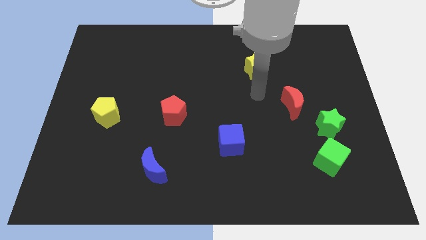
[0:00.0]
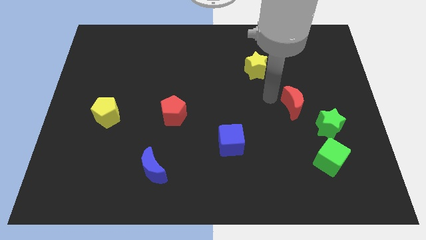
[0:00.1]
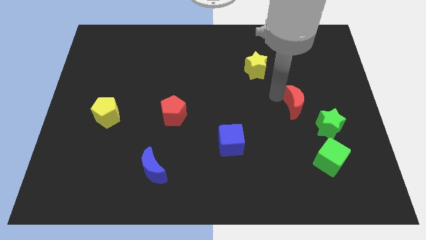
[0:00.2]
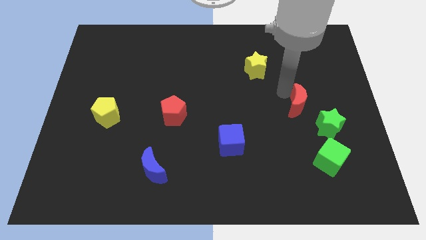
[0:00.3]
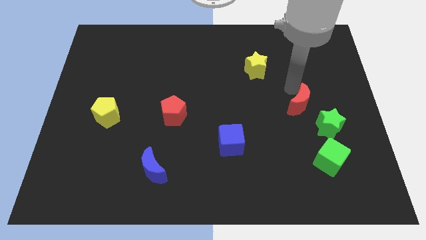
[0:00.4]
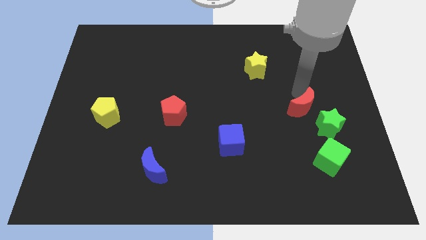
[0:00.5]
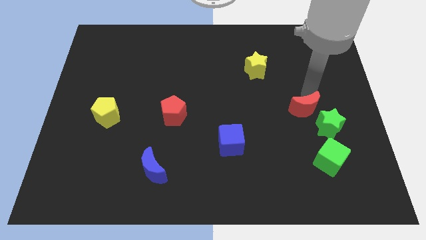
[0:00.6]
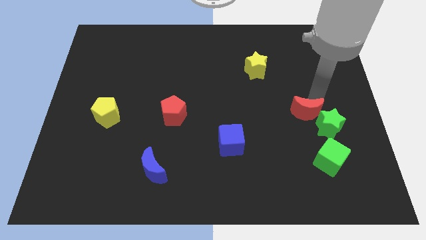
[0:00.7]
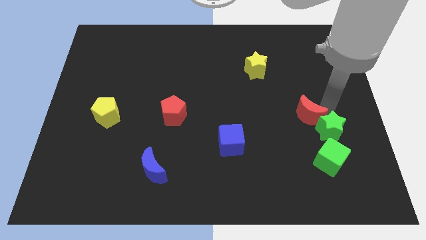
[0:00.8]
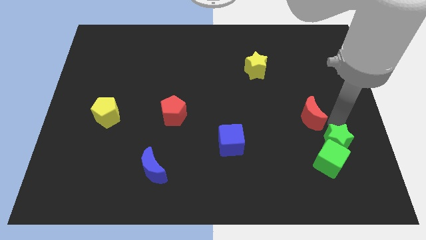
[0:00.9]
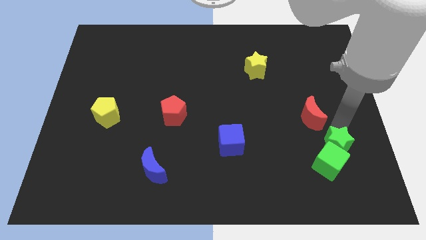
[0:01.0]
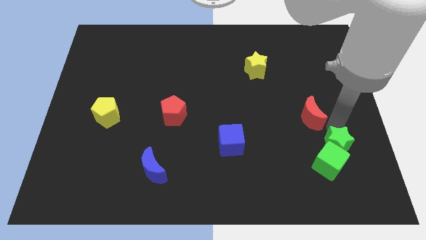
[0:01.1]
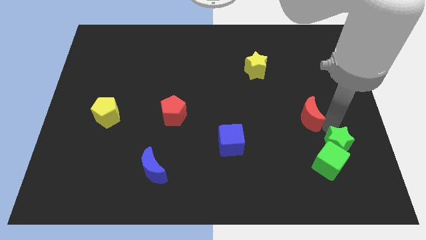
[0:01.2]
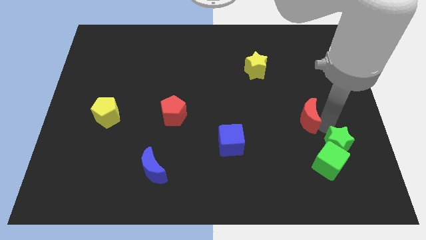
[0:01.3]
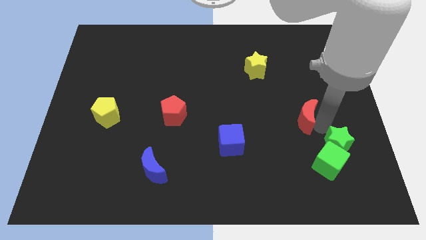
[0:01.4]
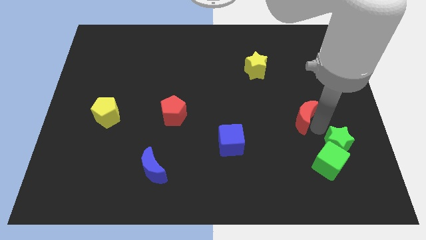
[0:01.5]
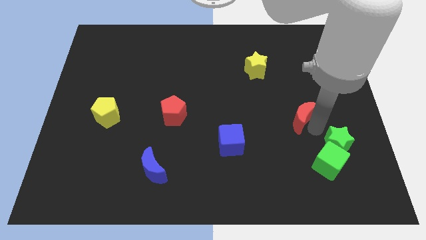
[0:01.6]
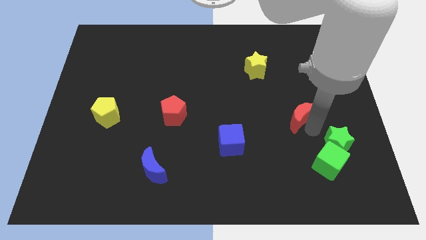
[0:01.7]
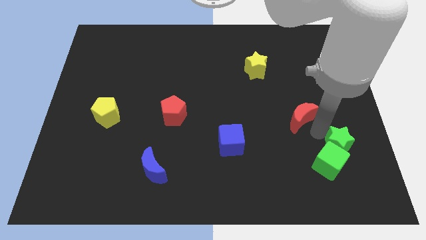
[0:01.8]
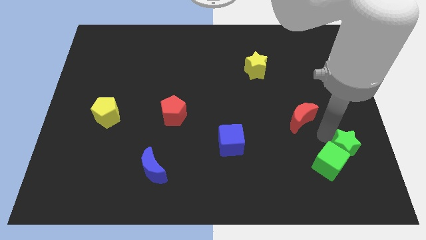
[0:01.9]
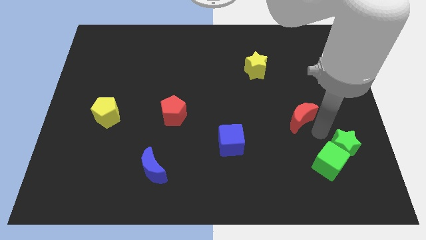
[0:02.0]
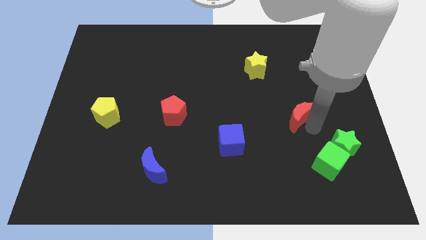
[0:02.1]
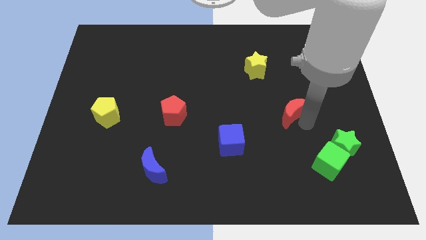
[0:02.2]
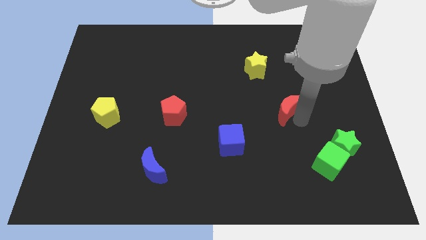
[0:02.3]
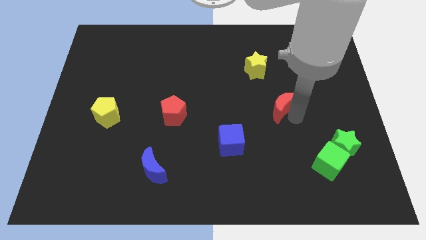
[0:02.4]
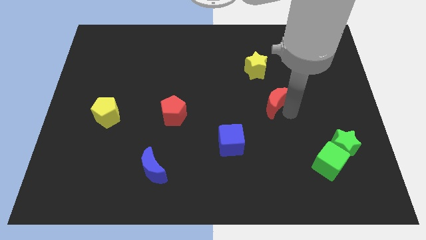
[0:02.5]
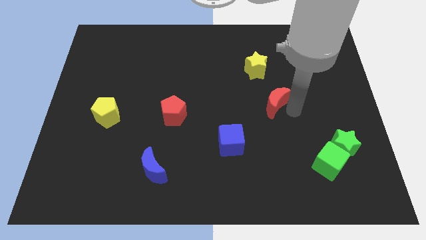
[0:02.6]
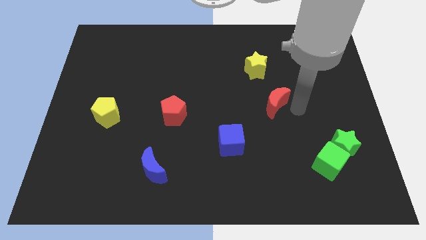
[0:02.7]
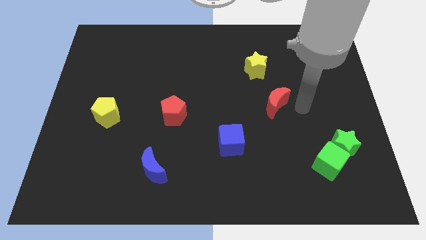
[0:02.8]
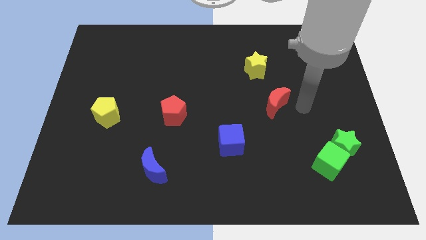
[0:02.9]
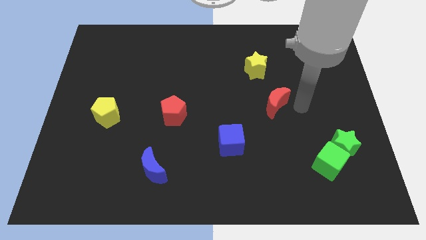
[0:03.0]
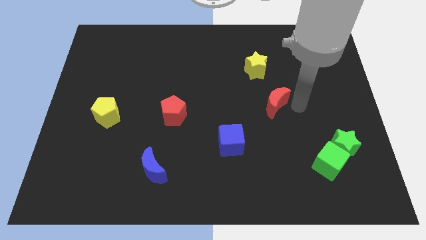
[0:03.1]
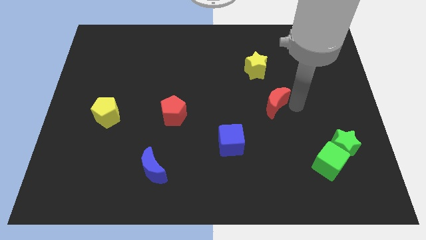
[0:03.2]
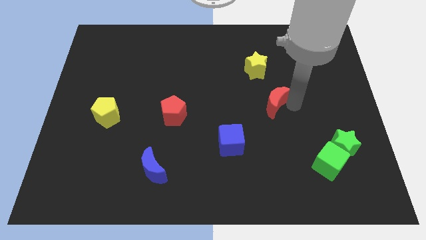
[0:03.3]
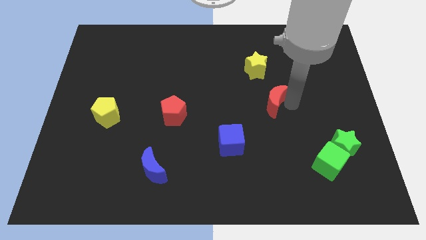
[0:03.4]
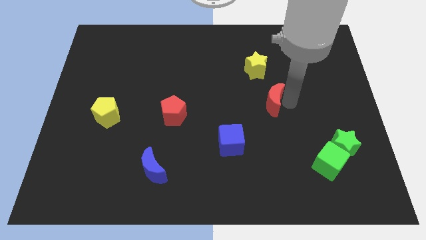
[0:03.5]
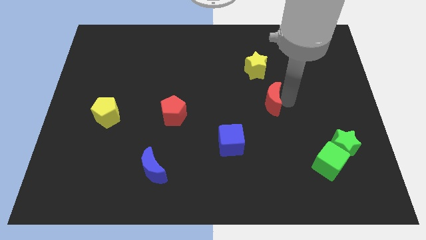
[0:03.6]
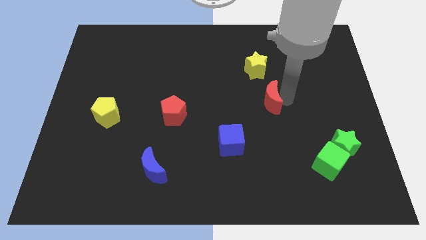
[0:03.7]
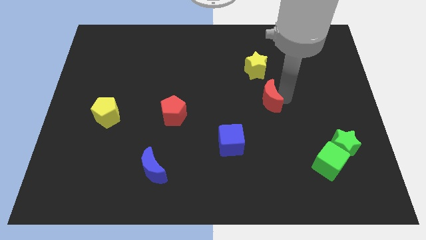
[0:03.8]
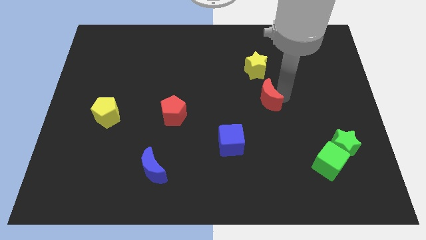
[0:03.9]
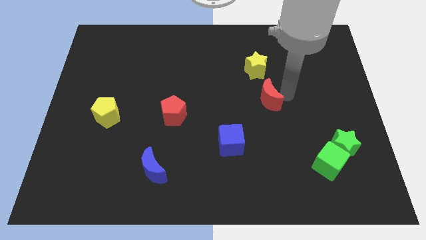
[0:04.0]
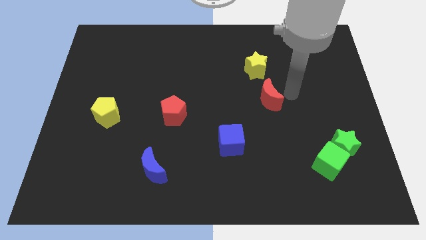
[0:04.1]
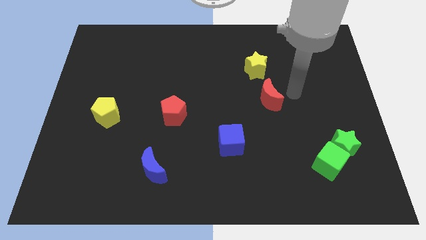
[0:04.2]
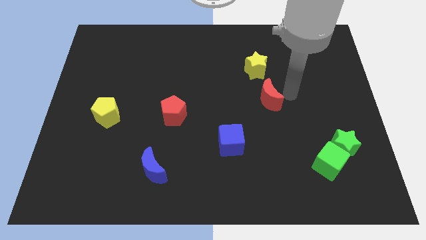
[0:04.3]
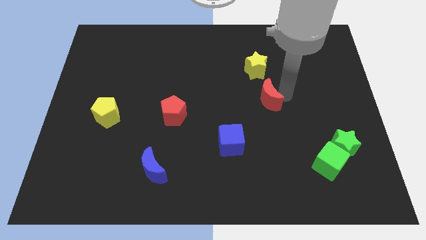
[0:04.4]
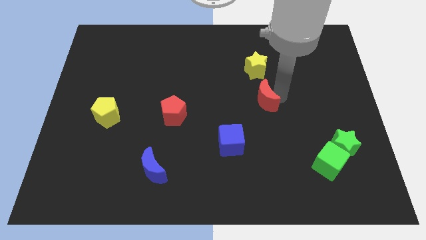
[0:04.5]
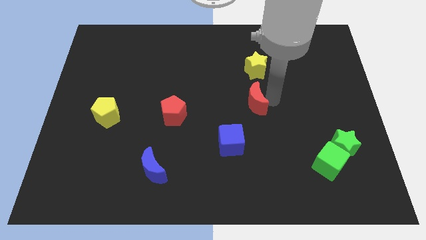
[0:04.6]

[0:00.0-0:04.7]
move the red moon left a little bit

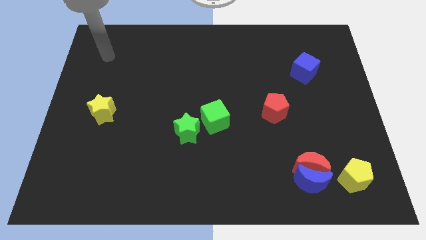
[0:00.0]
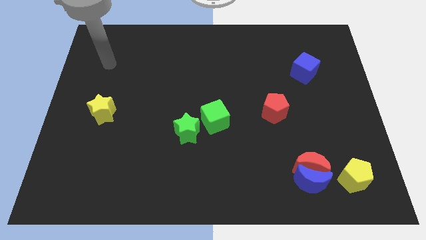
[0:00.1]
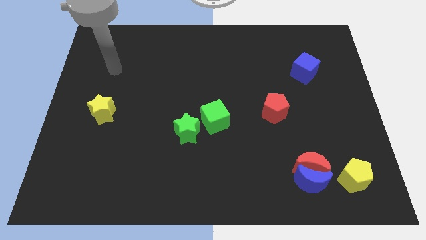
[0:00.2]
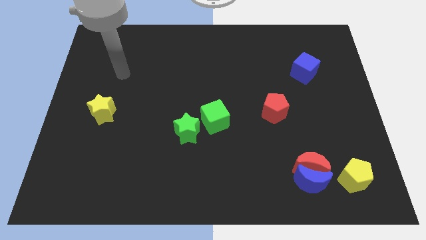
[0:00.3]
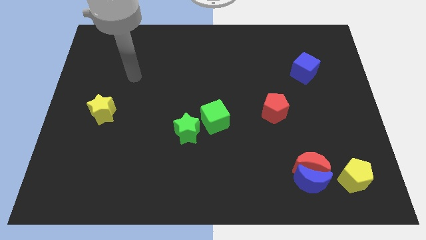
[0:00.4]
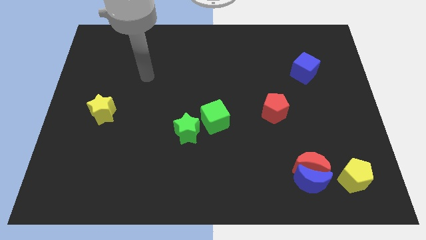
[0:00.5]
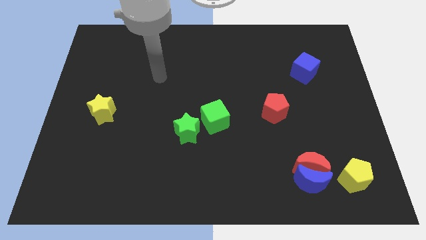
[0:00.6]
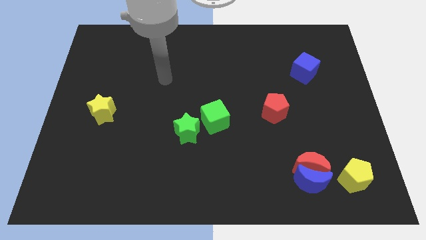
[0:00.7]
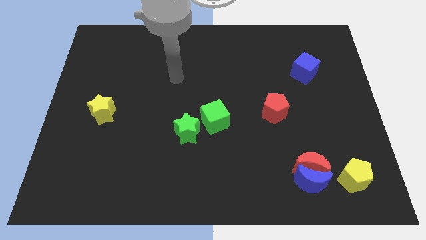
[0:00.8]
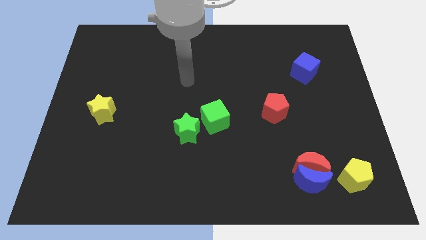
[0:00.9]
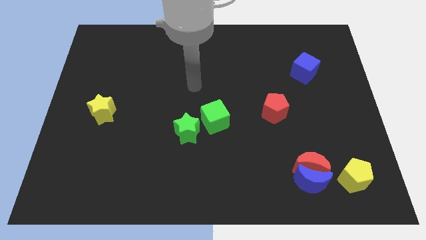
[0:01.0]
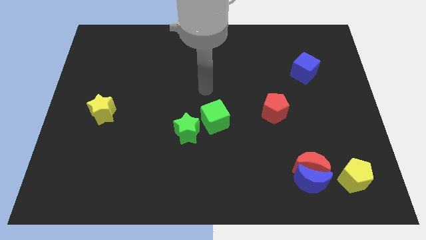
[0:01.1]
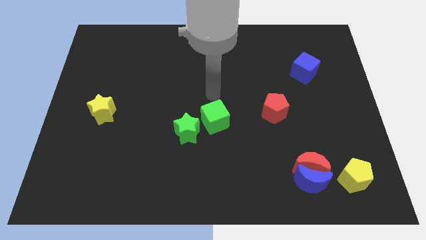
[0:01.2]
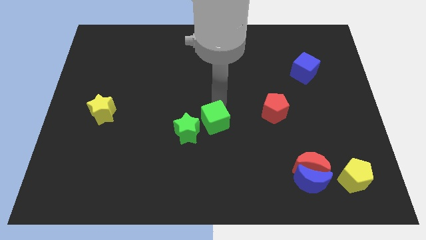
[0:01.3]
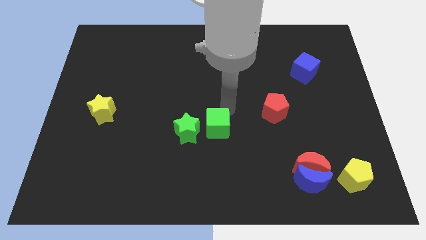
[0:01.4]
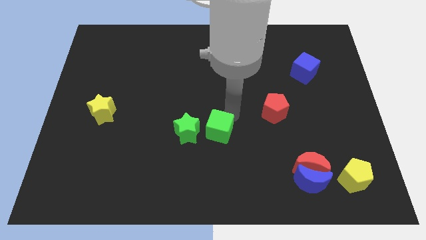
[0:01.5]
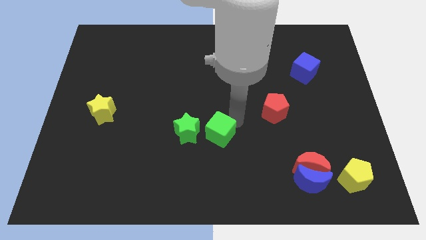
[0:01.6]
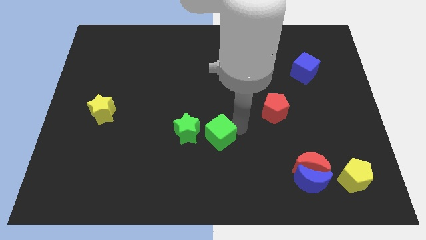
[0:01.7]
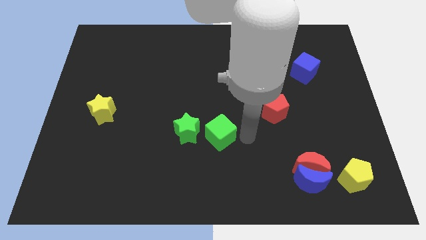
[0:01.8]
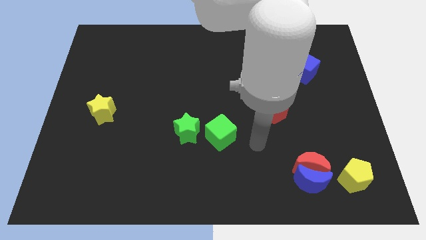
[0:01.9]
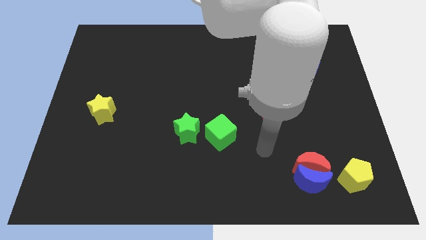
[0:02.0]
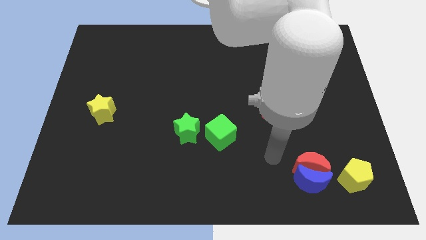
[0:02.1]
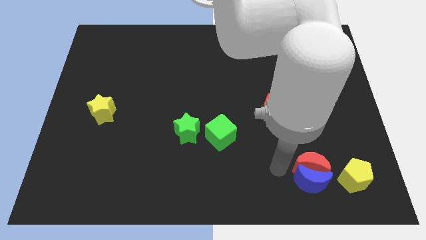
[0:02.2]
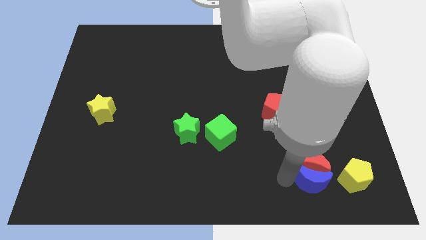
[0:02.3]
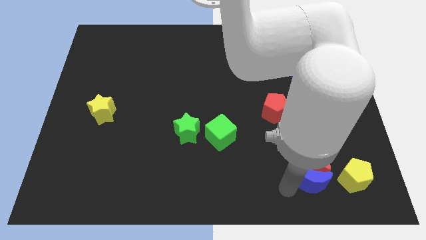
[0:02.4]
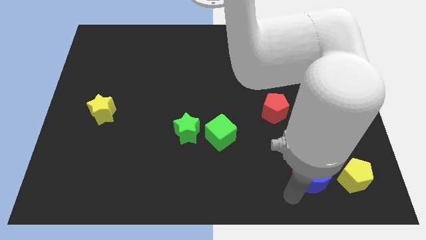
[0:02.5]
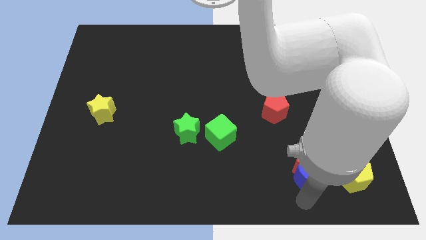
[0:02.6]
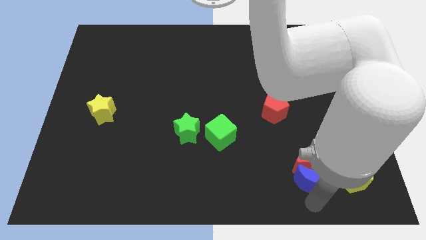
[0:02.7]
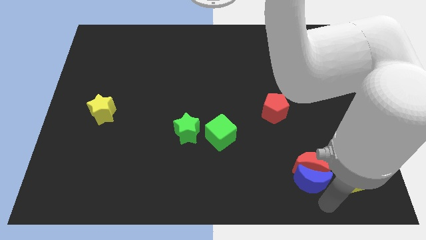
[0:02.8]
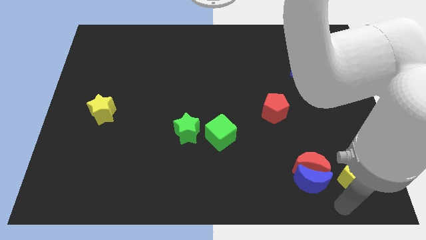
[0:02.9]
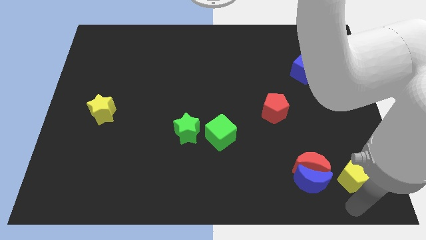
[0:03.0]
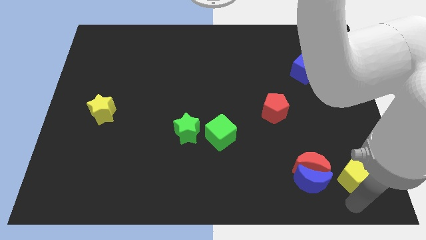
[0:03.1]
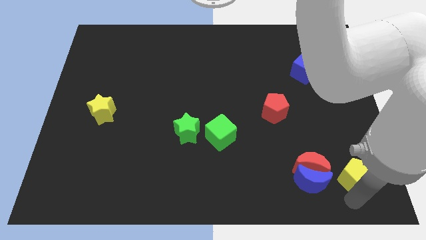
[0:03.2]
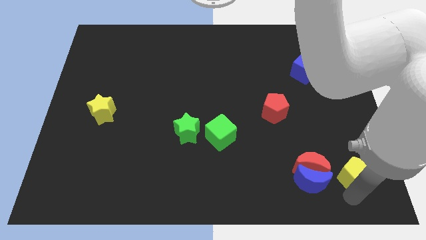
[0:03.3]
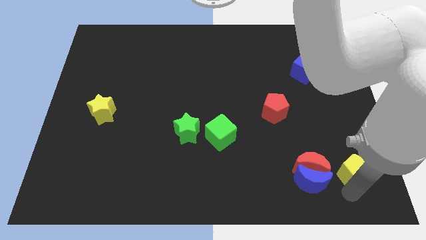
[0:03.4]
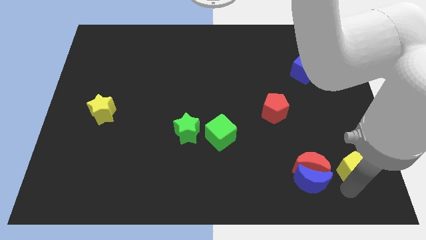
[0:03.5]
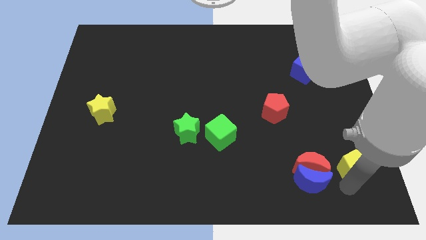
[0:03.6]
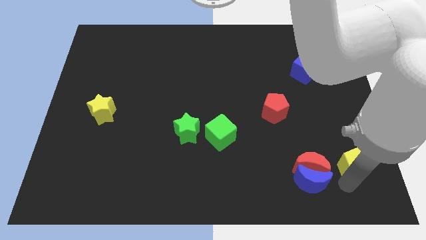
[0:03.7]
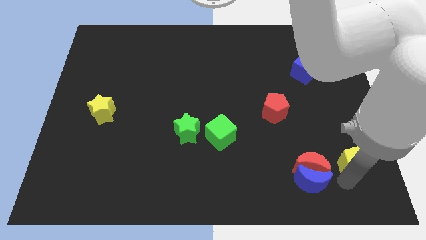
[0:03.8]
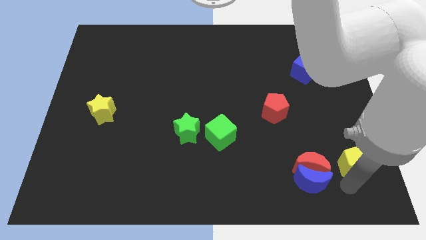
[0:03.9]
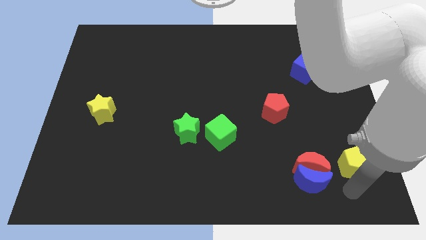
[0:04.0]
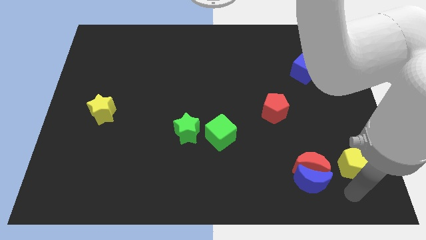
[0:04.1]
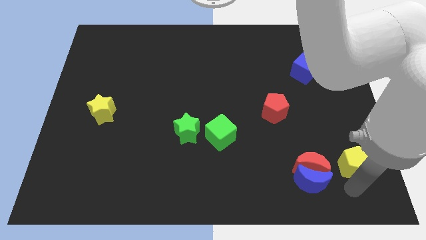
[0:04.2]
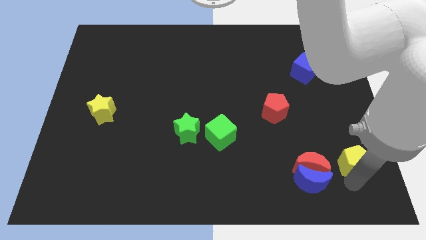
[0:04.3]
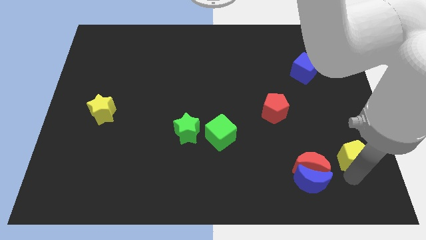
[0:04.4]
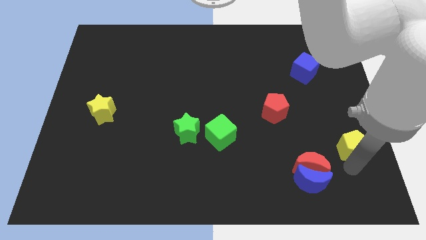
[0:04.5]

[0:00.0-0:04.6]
move the yellow pentagon a bit up
